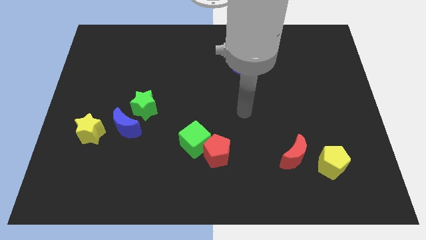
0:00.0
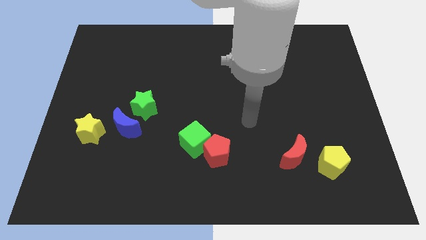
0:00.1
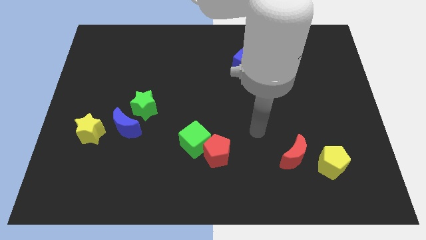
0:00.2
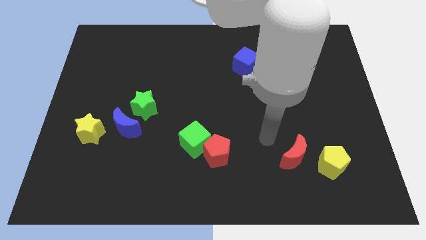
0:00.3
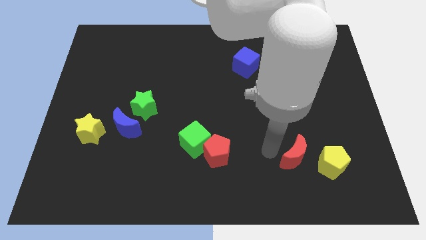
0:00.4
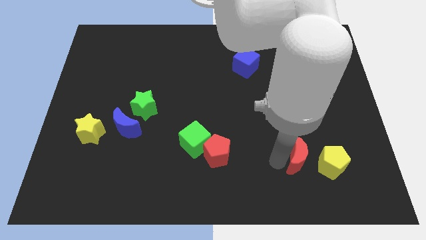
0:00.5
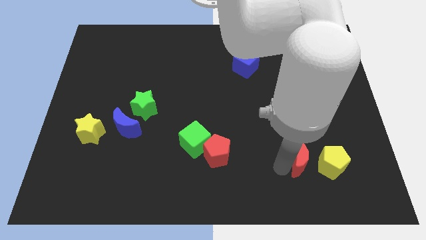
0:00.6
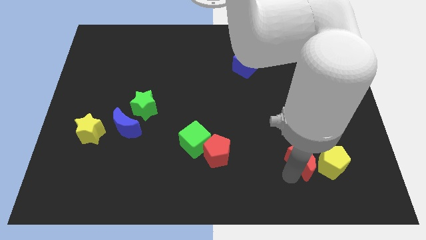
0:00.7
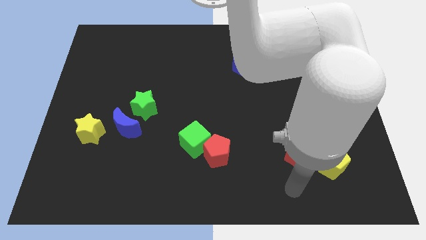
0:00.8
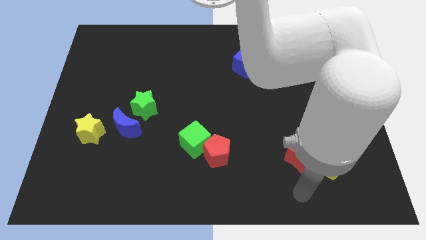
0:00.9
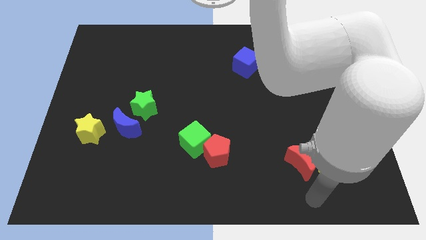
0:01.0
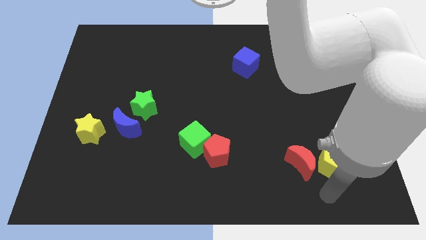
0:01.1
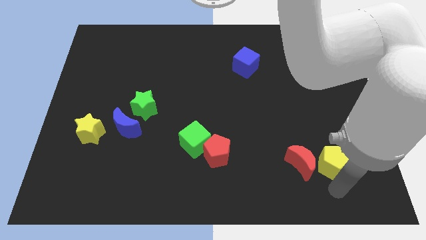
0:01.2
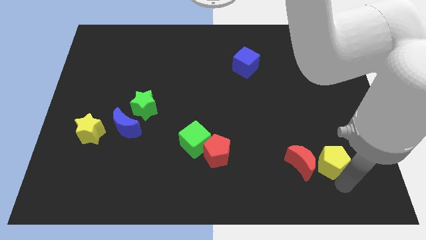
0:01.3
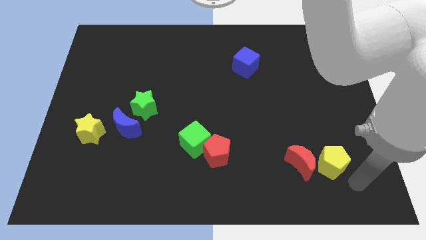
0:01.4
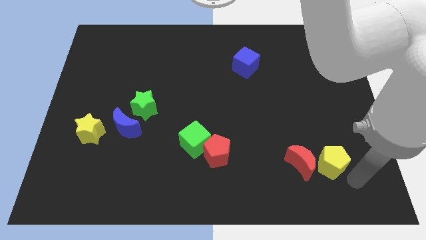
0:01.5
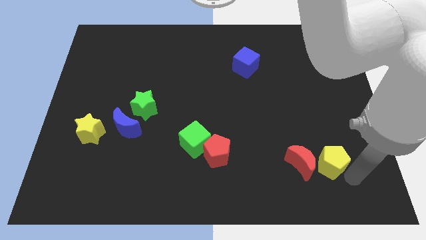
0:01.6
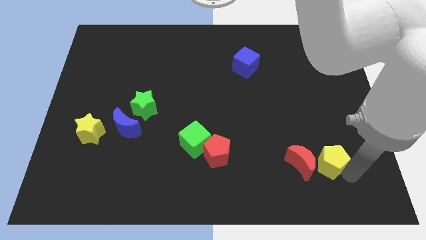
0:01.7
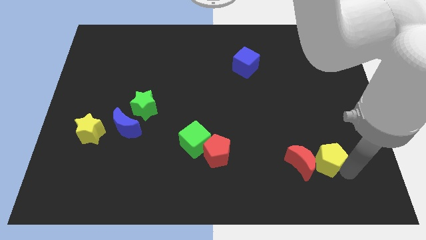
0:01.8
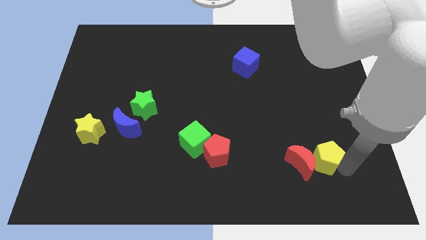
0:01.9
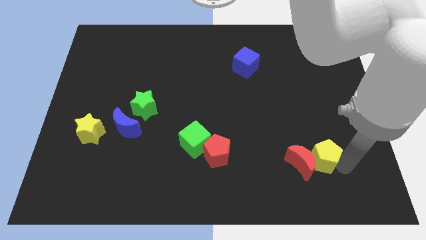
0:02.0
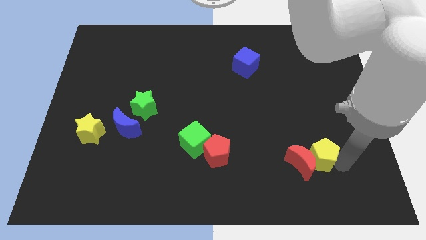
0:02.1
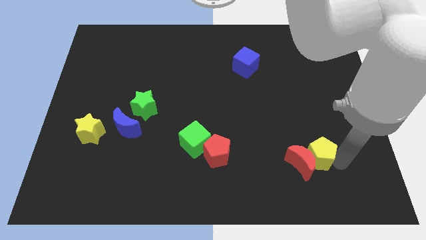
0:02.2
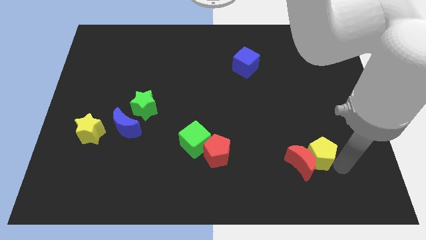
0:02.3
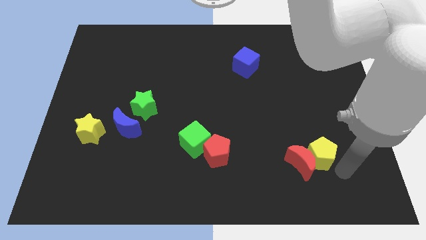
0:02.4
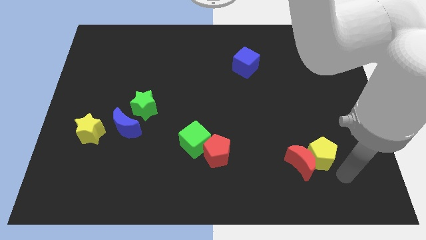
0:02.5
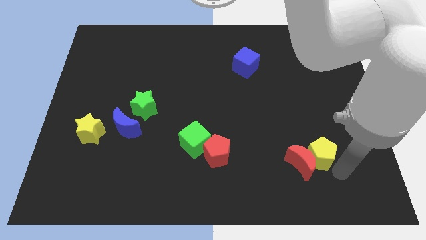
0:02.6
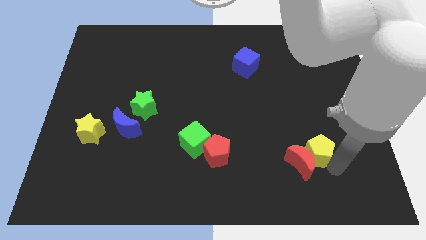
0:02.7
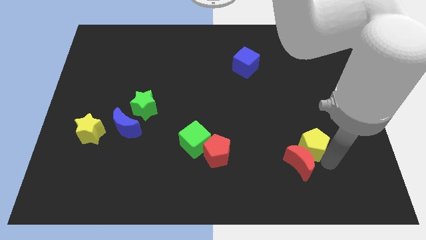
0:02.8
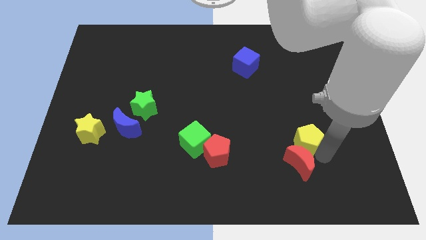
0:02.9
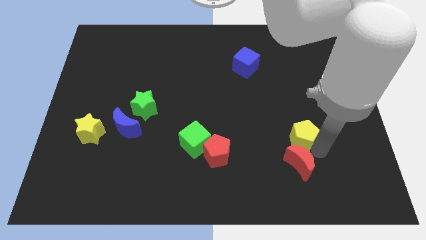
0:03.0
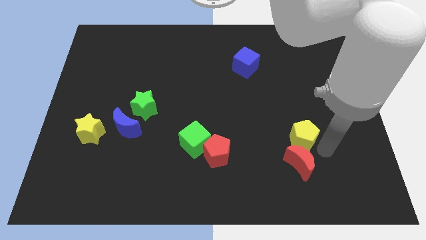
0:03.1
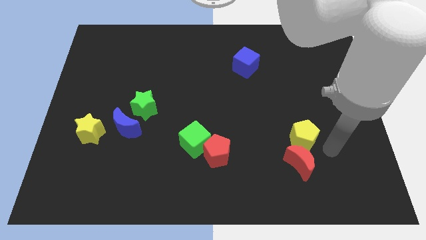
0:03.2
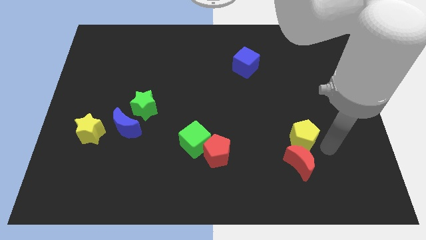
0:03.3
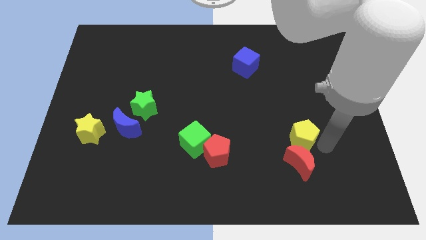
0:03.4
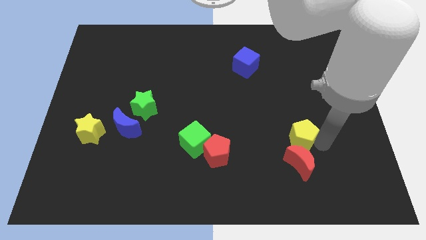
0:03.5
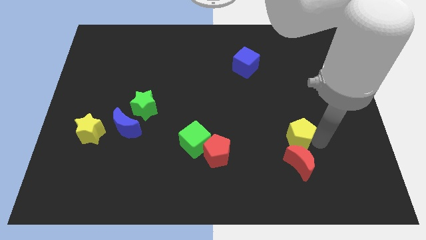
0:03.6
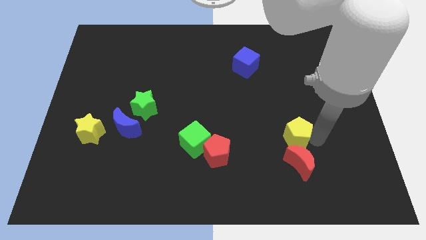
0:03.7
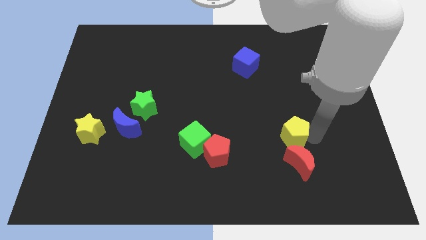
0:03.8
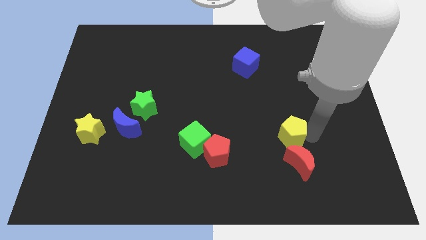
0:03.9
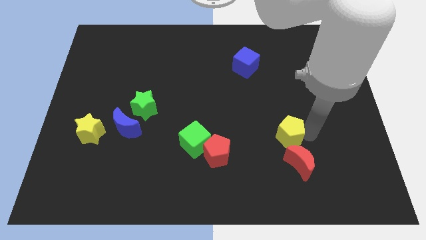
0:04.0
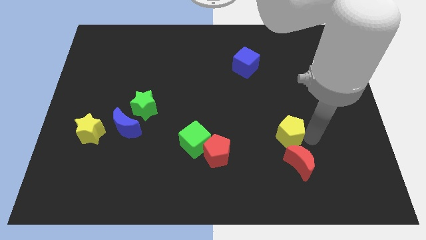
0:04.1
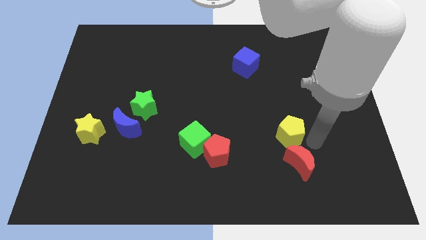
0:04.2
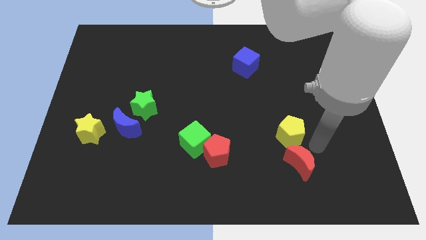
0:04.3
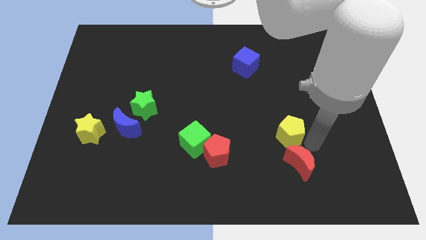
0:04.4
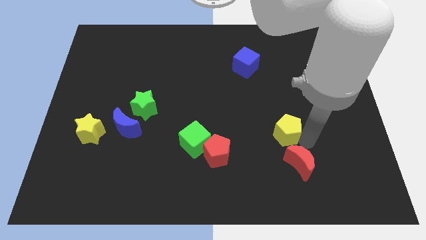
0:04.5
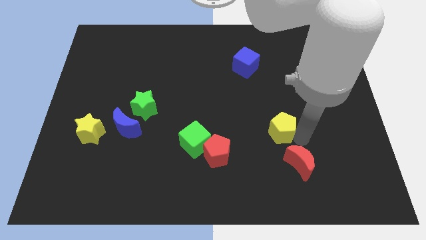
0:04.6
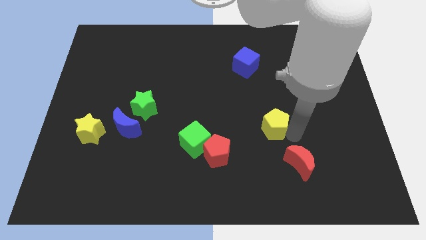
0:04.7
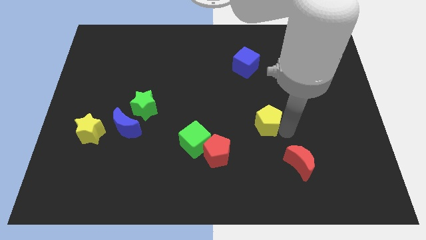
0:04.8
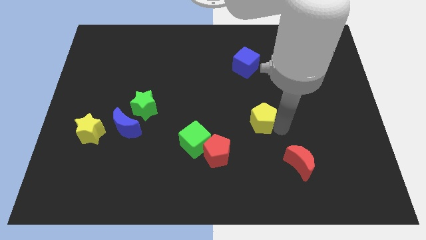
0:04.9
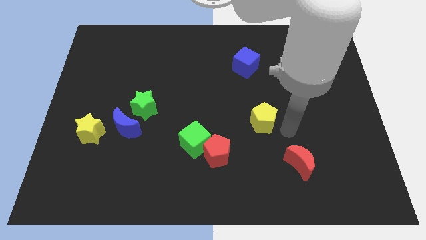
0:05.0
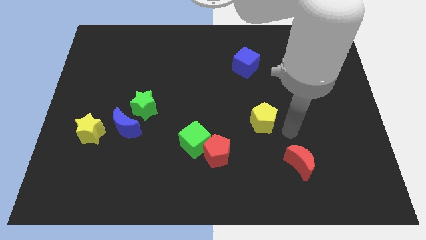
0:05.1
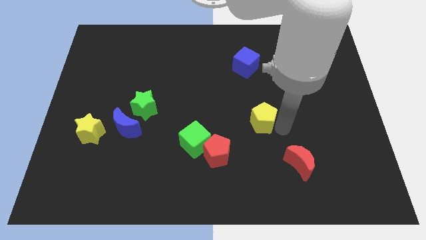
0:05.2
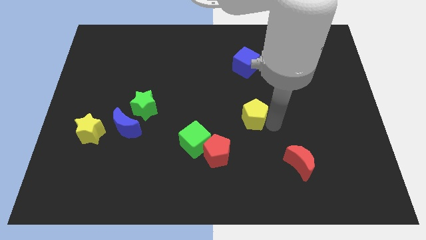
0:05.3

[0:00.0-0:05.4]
move the yellow pentagon to the middle
